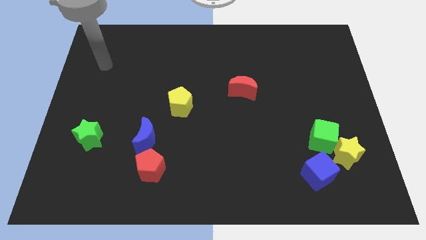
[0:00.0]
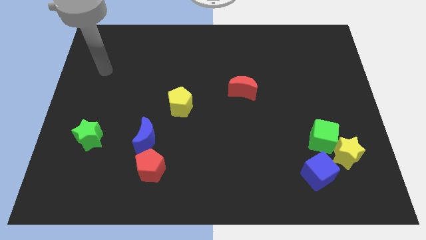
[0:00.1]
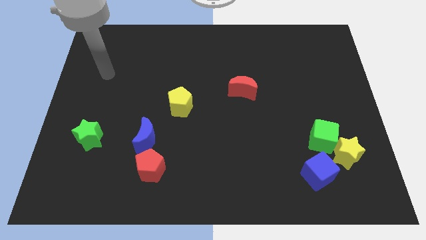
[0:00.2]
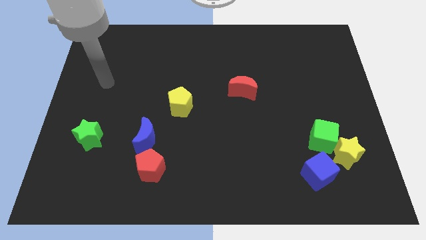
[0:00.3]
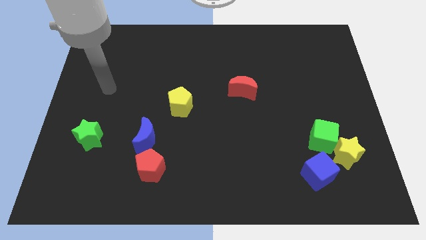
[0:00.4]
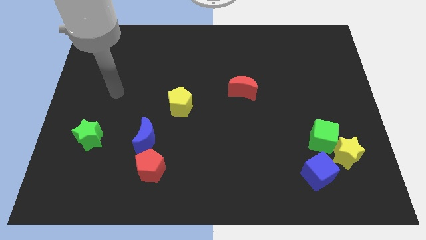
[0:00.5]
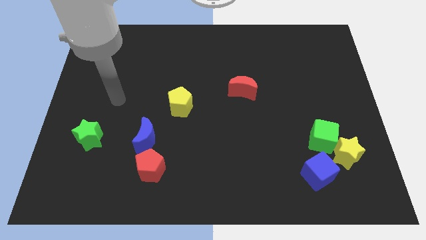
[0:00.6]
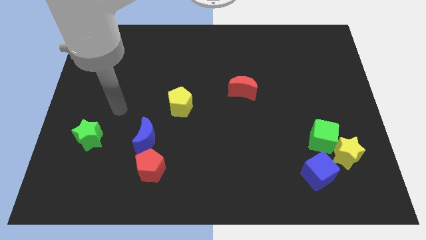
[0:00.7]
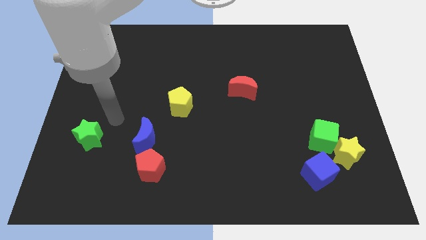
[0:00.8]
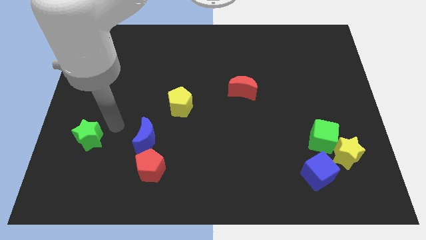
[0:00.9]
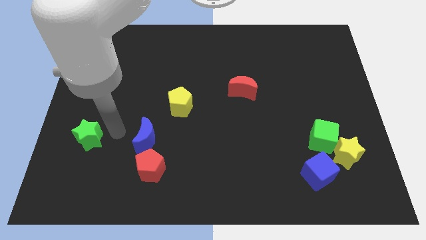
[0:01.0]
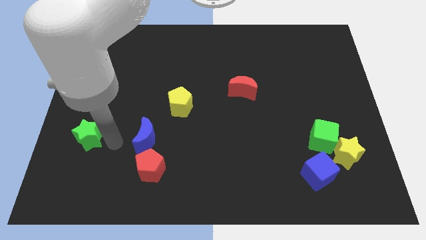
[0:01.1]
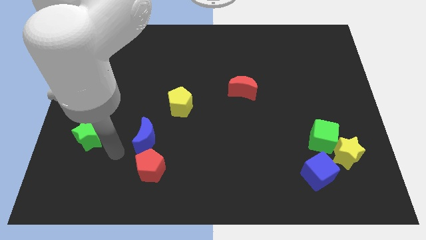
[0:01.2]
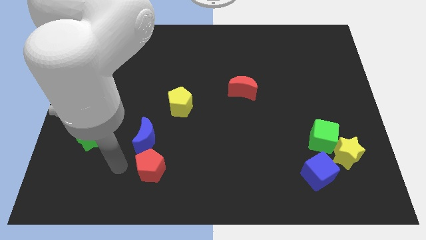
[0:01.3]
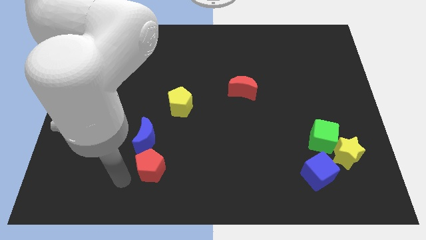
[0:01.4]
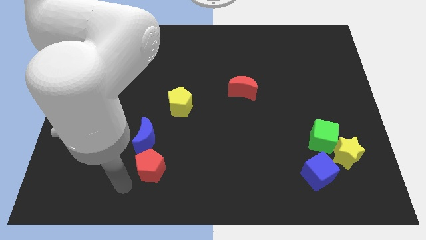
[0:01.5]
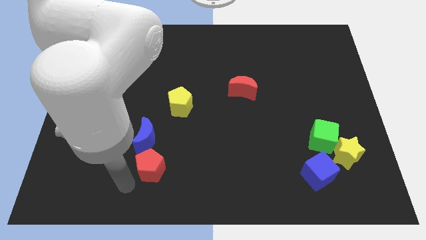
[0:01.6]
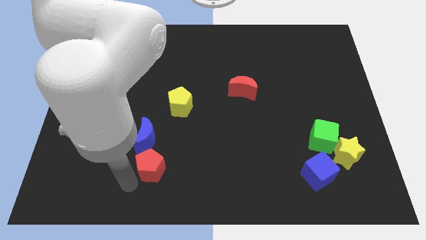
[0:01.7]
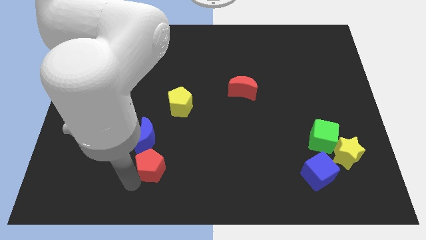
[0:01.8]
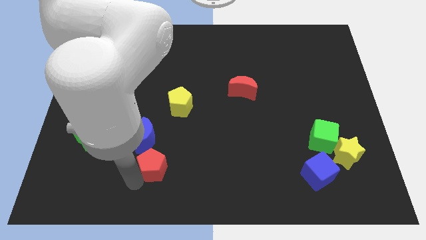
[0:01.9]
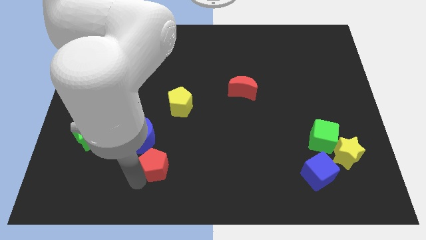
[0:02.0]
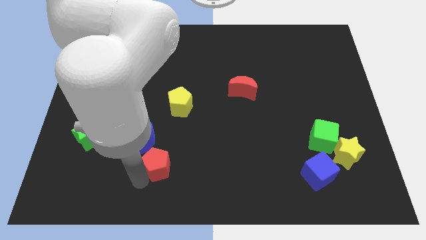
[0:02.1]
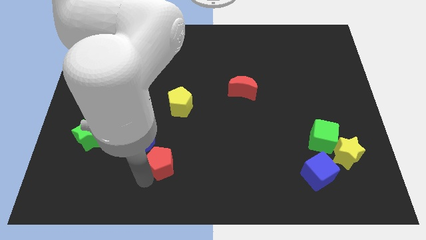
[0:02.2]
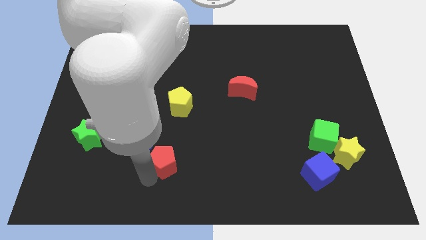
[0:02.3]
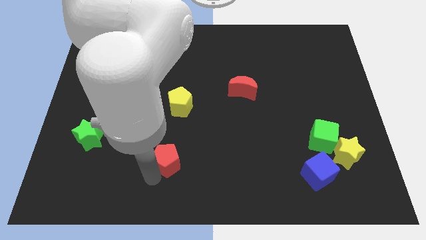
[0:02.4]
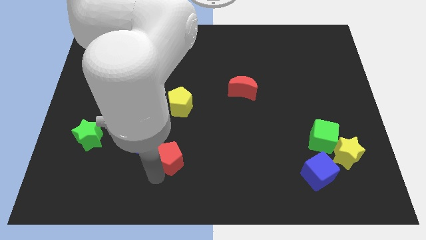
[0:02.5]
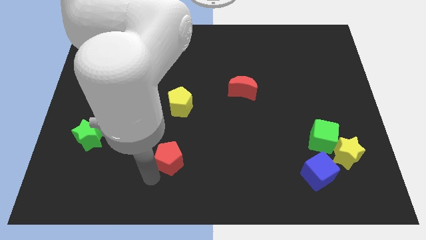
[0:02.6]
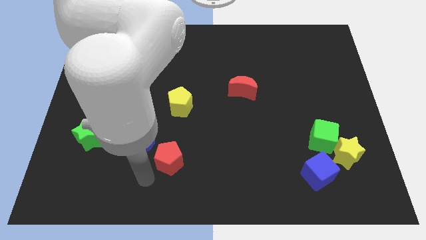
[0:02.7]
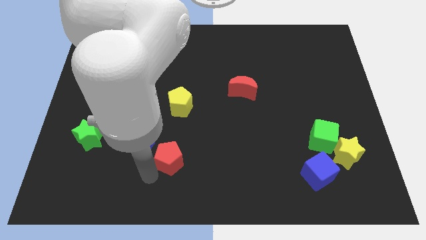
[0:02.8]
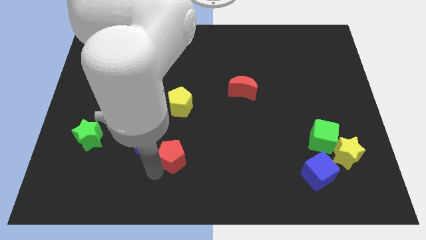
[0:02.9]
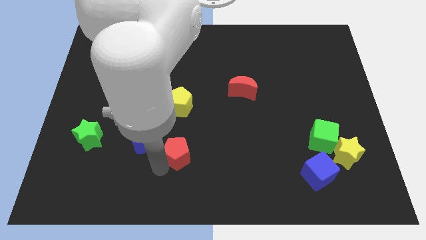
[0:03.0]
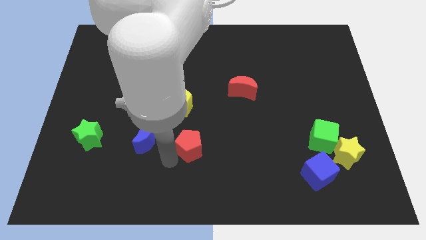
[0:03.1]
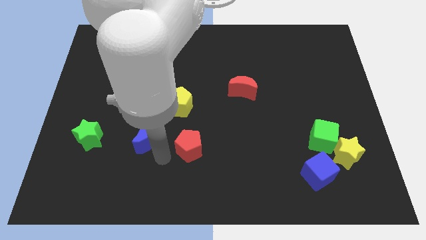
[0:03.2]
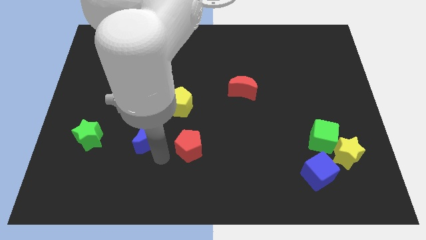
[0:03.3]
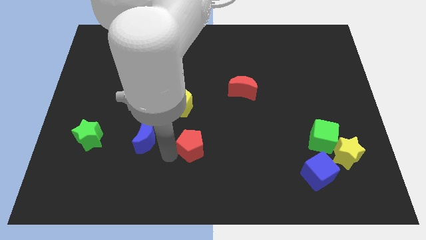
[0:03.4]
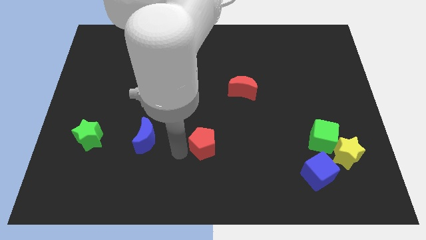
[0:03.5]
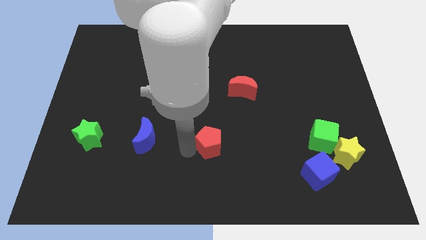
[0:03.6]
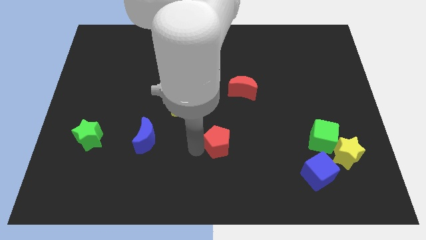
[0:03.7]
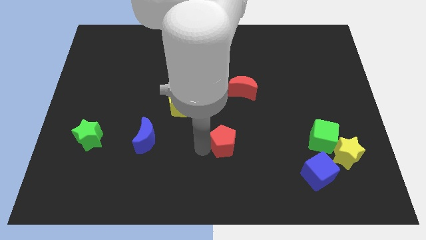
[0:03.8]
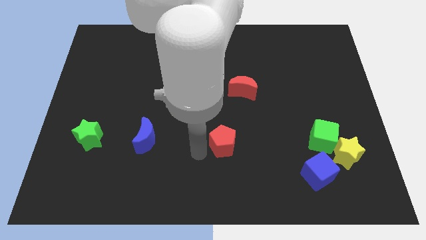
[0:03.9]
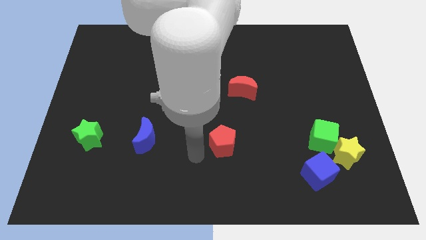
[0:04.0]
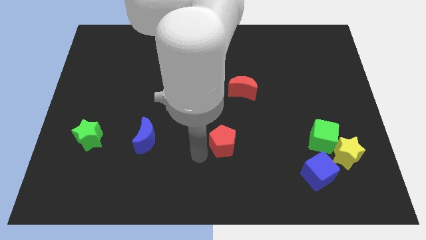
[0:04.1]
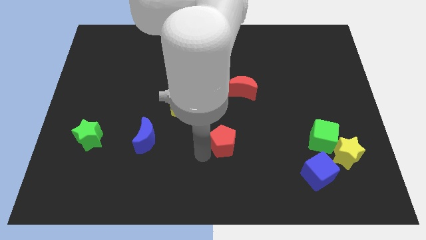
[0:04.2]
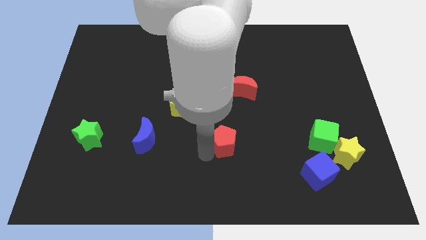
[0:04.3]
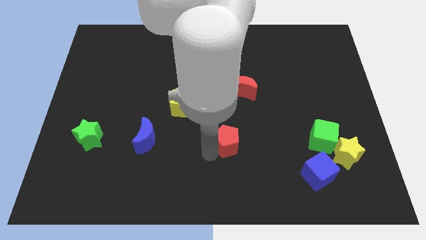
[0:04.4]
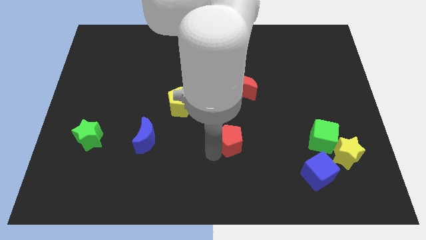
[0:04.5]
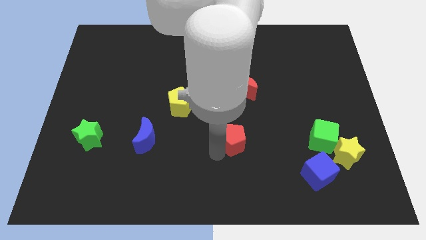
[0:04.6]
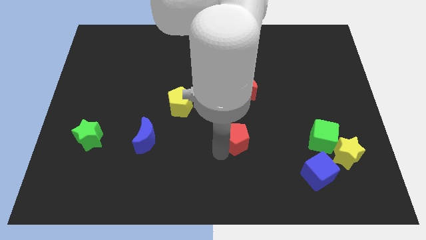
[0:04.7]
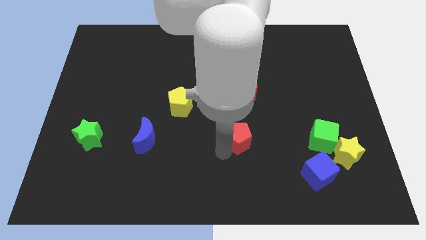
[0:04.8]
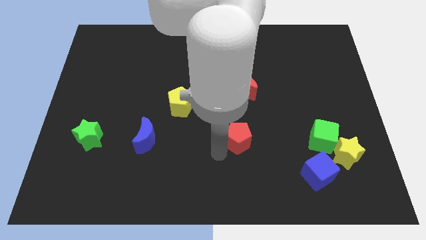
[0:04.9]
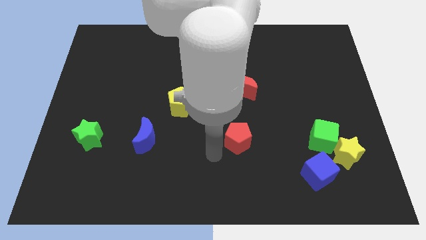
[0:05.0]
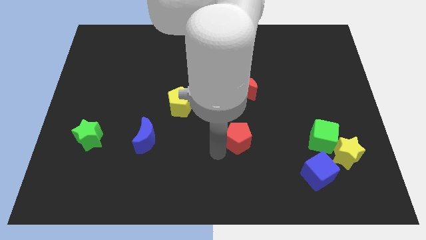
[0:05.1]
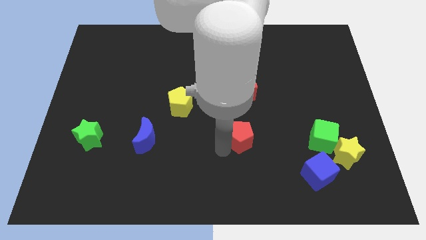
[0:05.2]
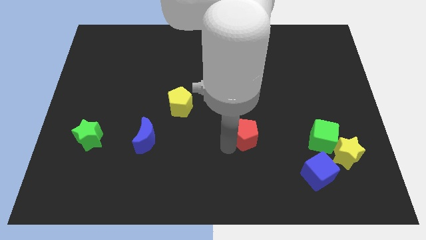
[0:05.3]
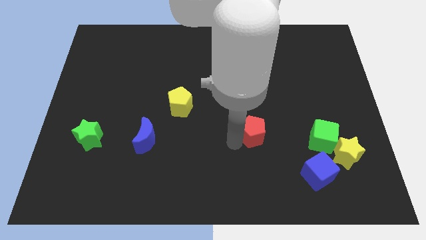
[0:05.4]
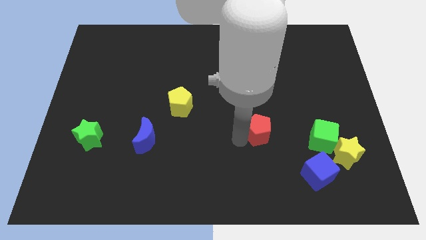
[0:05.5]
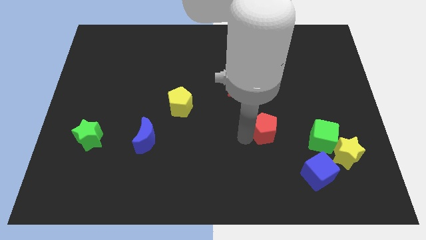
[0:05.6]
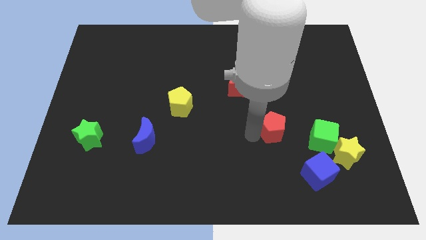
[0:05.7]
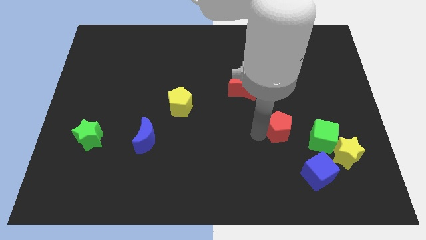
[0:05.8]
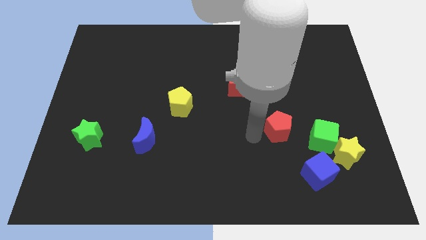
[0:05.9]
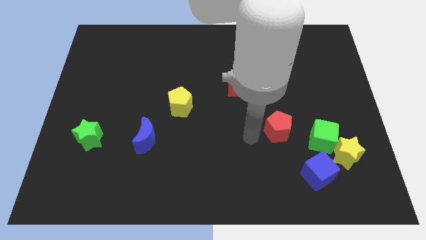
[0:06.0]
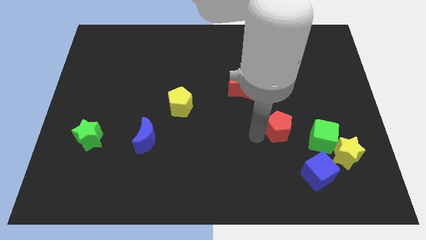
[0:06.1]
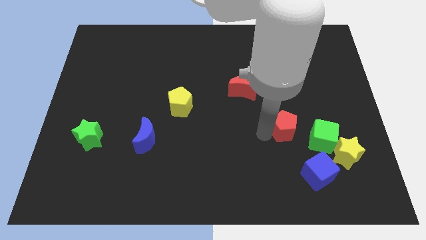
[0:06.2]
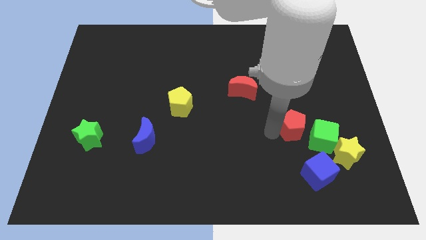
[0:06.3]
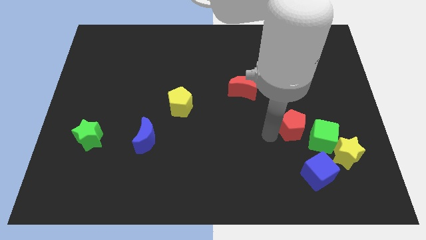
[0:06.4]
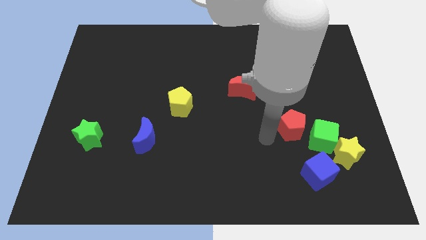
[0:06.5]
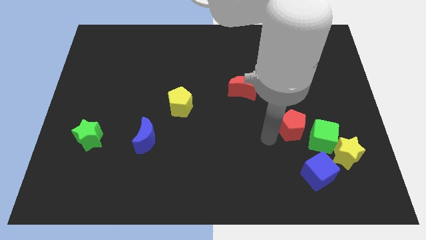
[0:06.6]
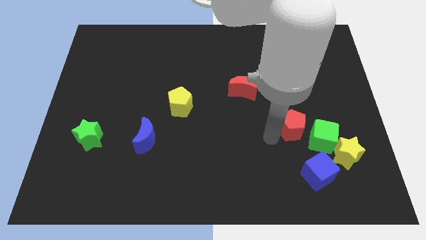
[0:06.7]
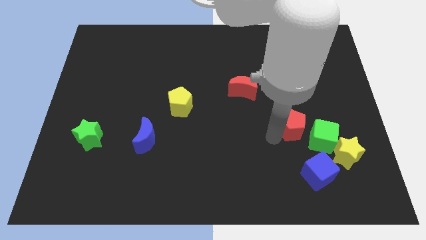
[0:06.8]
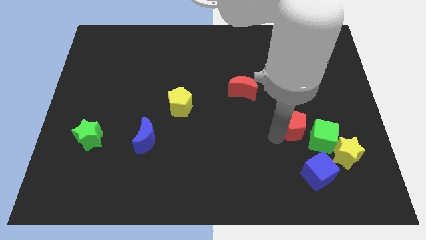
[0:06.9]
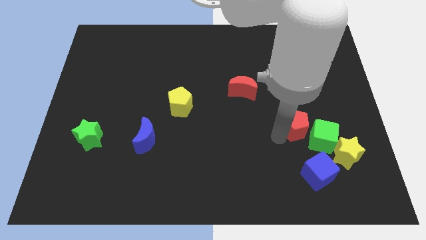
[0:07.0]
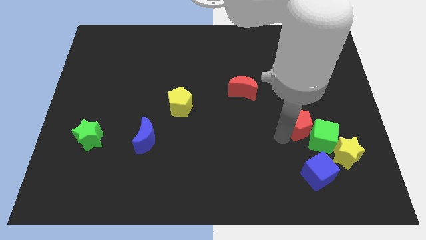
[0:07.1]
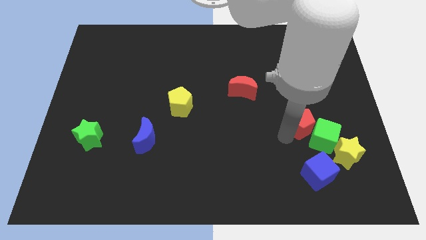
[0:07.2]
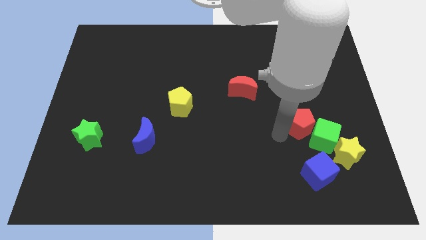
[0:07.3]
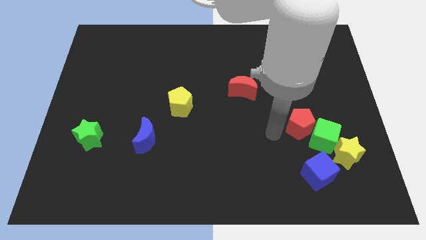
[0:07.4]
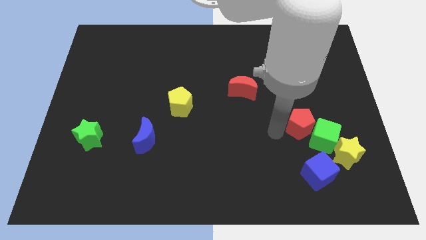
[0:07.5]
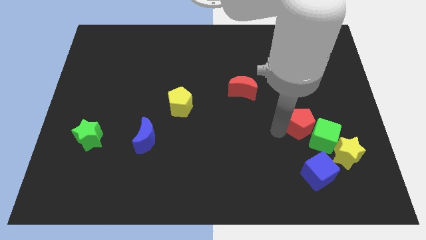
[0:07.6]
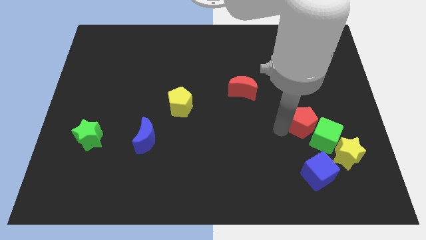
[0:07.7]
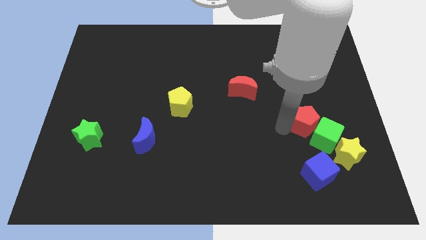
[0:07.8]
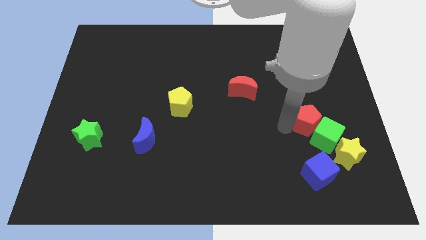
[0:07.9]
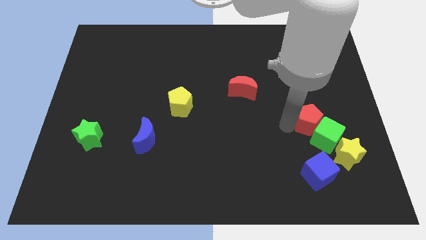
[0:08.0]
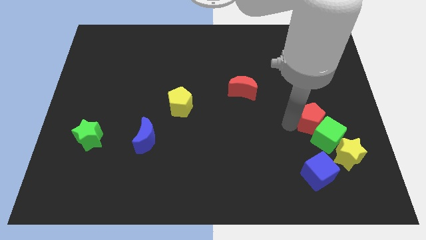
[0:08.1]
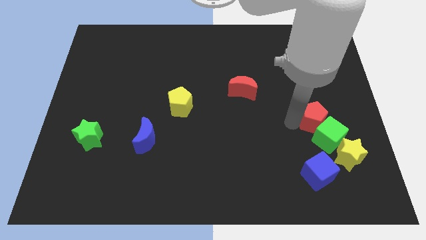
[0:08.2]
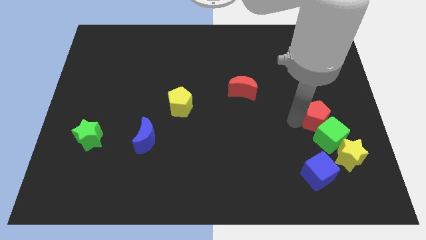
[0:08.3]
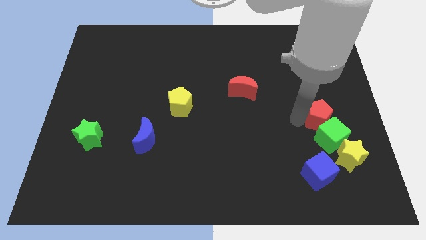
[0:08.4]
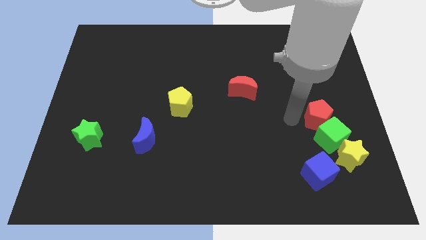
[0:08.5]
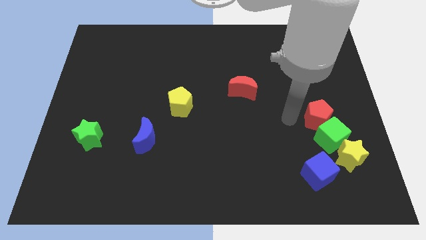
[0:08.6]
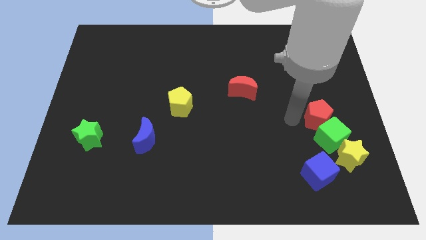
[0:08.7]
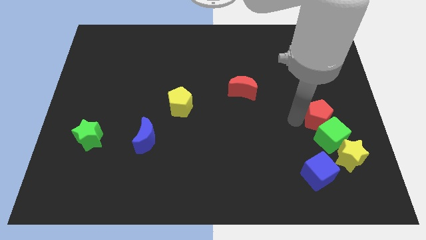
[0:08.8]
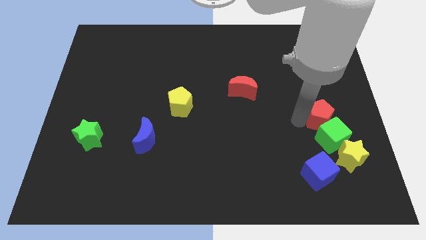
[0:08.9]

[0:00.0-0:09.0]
slide the red pentagon to the top of the yellow star
